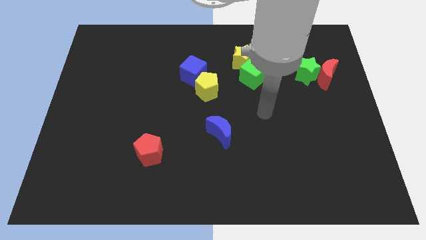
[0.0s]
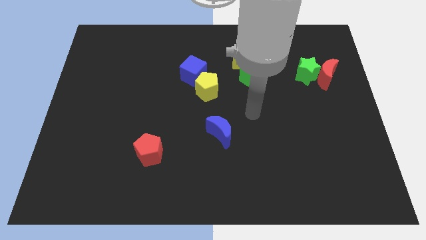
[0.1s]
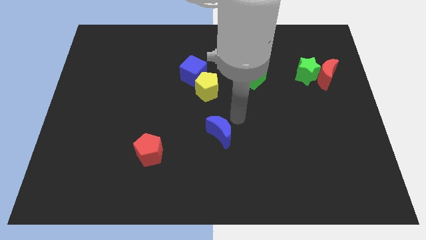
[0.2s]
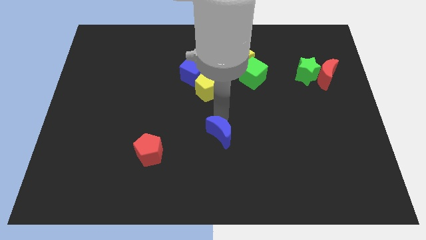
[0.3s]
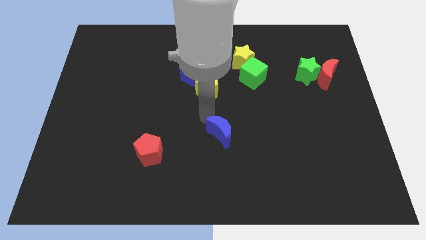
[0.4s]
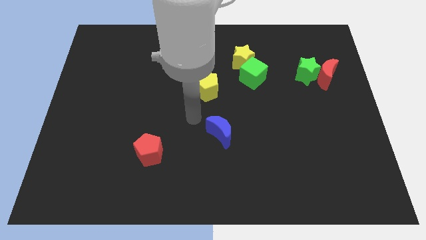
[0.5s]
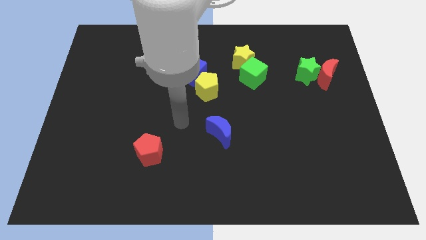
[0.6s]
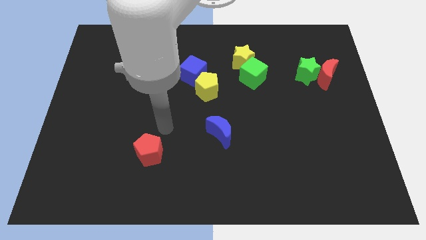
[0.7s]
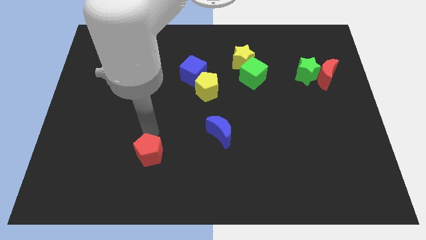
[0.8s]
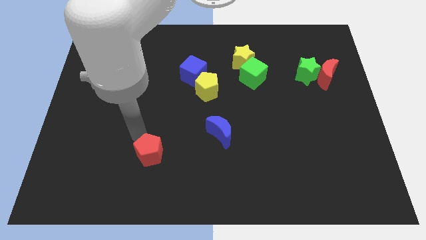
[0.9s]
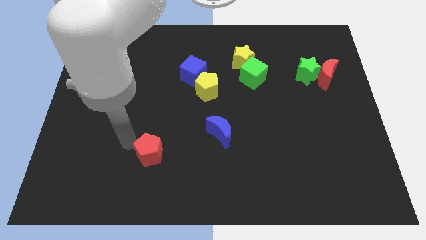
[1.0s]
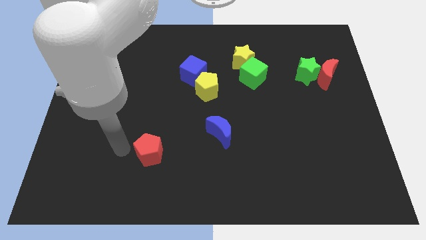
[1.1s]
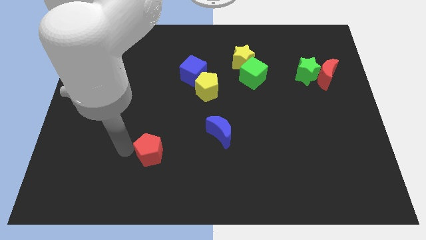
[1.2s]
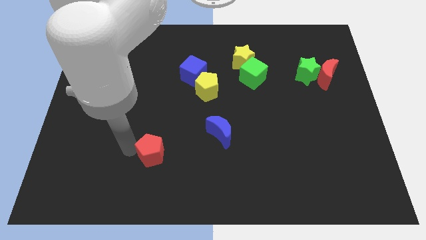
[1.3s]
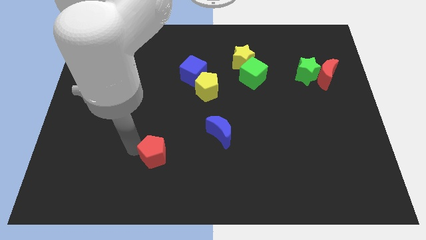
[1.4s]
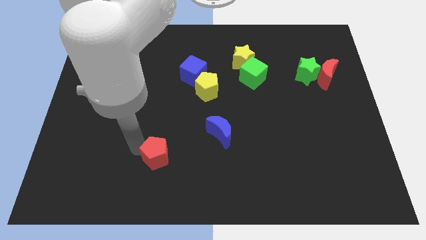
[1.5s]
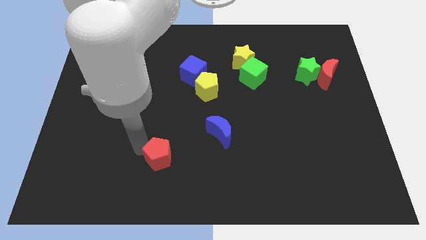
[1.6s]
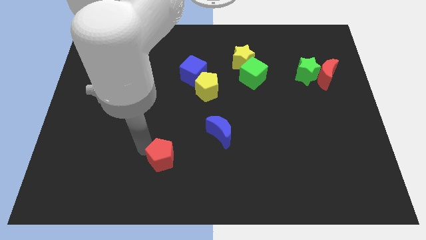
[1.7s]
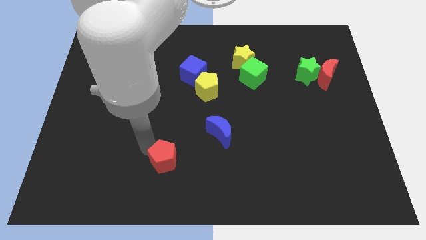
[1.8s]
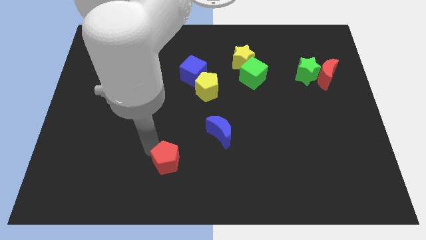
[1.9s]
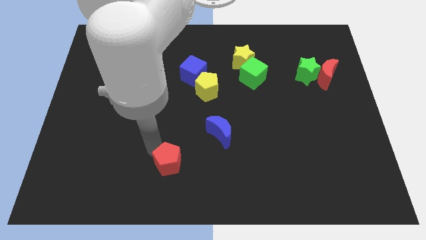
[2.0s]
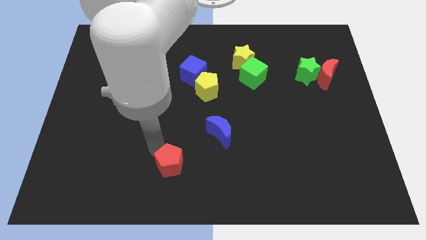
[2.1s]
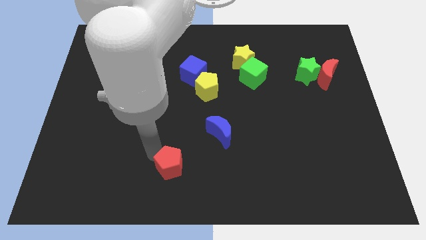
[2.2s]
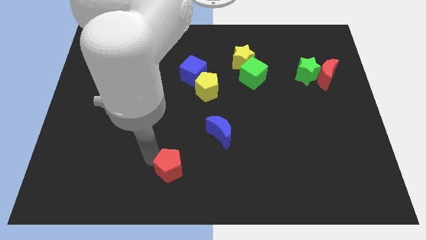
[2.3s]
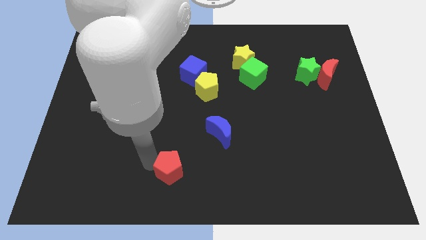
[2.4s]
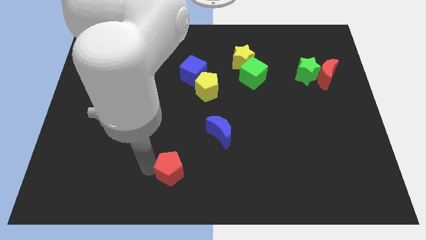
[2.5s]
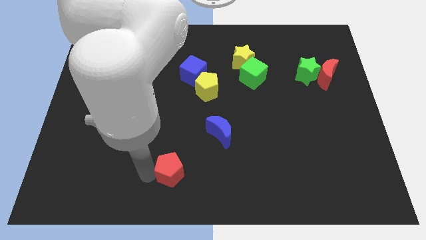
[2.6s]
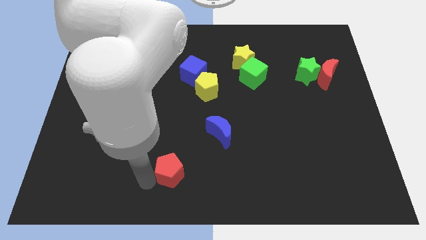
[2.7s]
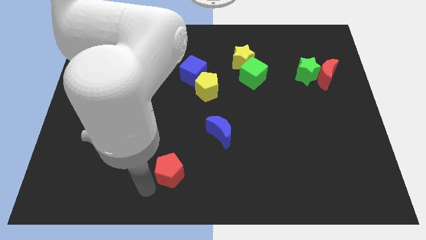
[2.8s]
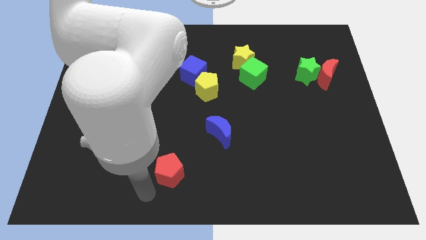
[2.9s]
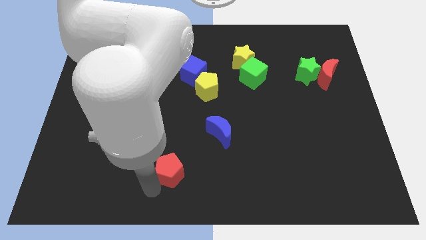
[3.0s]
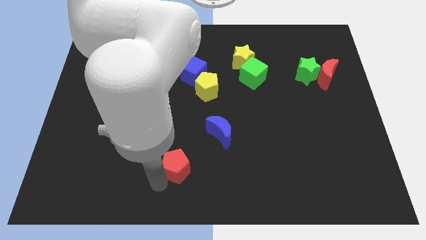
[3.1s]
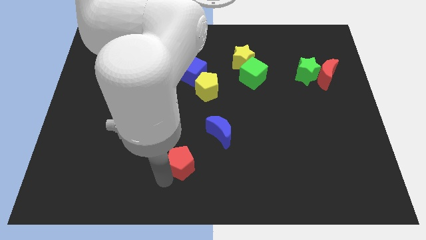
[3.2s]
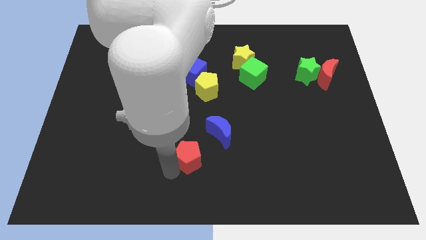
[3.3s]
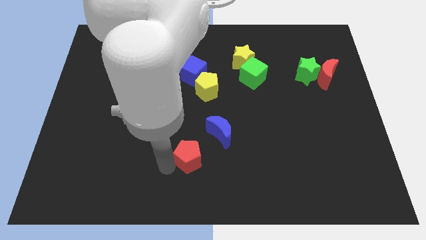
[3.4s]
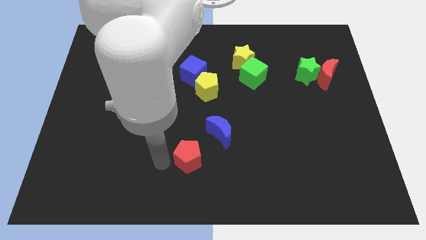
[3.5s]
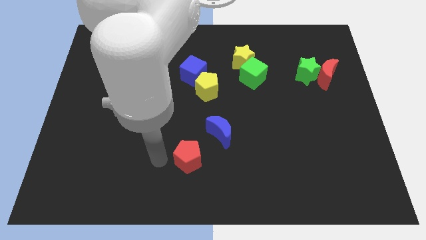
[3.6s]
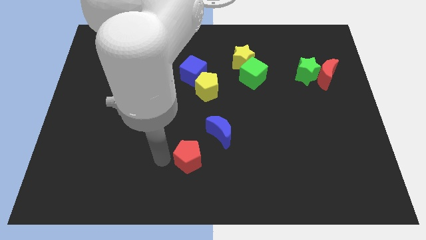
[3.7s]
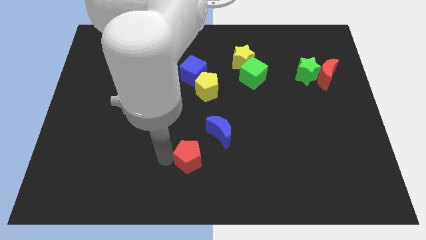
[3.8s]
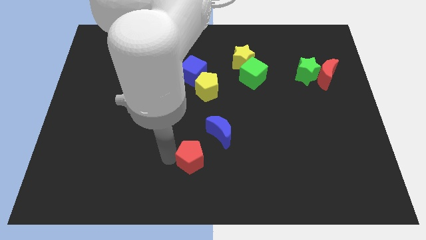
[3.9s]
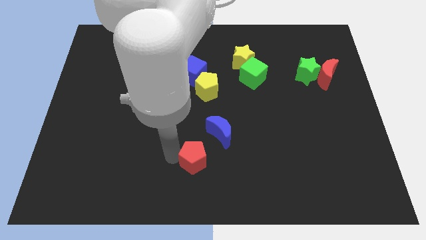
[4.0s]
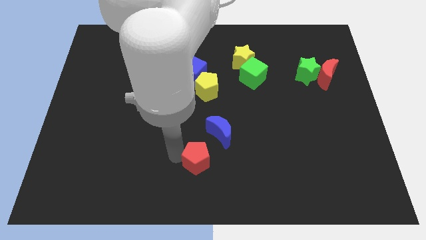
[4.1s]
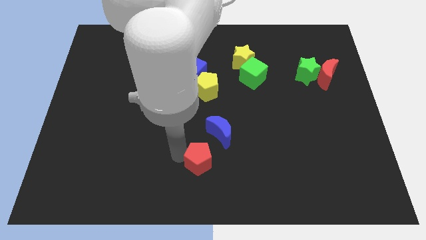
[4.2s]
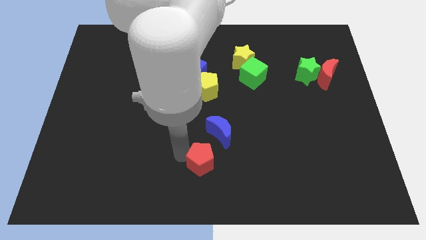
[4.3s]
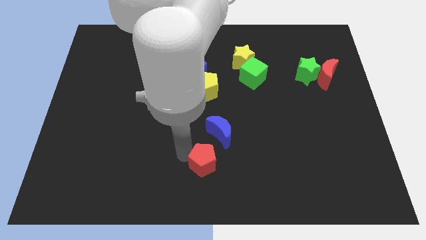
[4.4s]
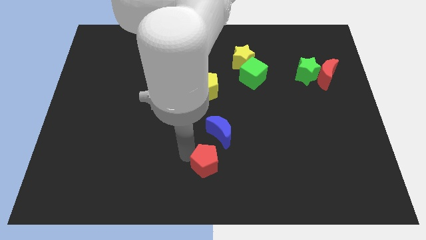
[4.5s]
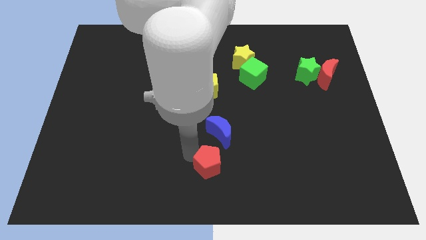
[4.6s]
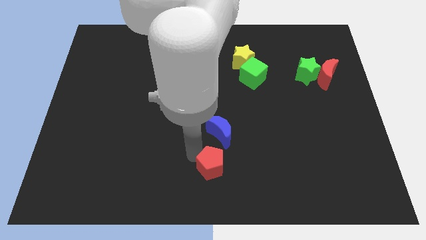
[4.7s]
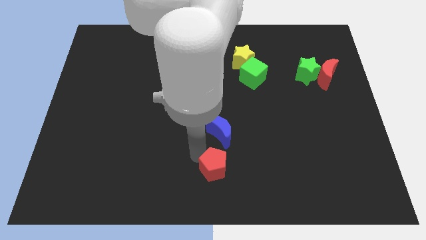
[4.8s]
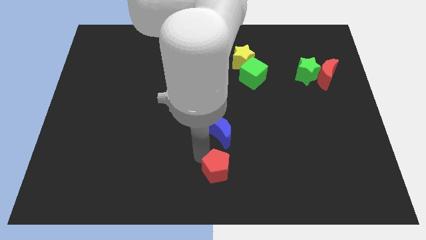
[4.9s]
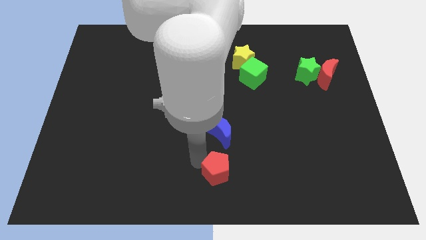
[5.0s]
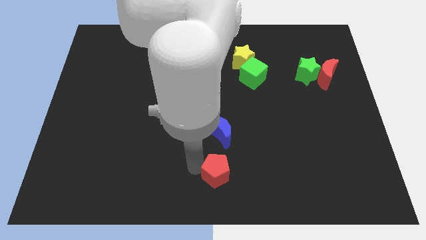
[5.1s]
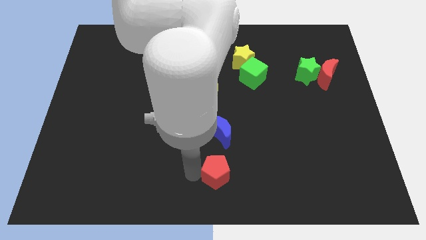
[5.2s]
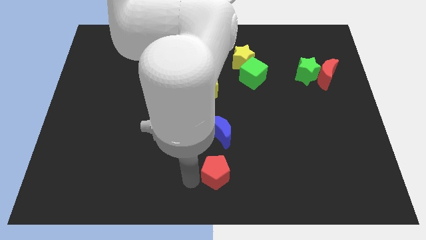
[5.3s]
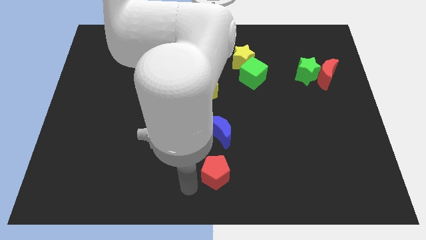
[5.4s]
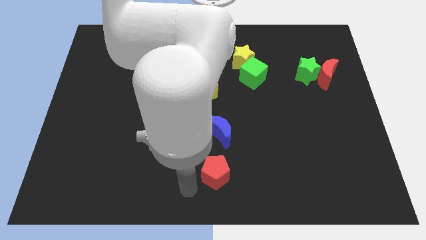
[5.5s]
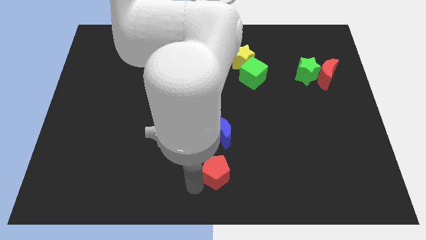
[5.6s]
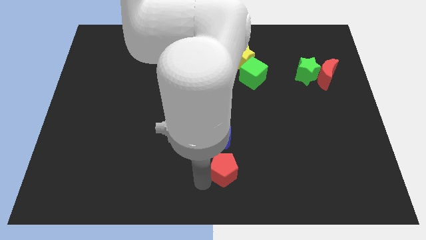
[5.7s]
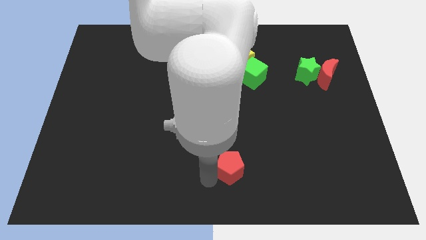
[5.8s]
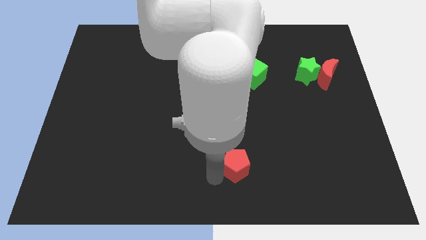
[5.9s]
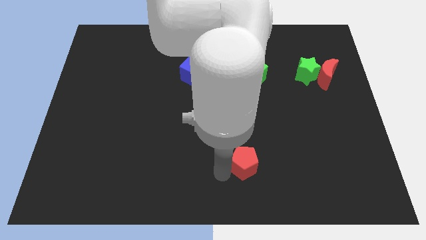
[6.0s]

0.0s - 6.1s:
push the red pentagon to the right

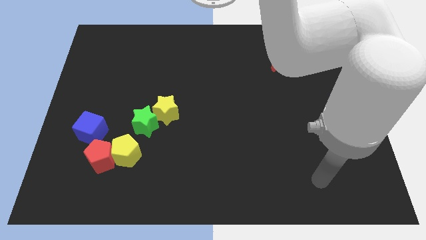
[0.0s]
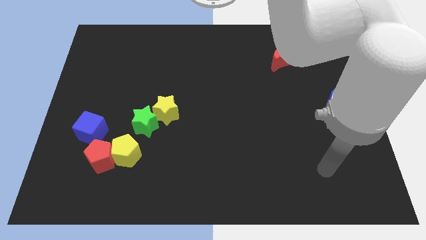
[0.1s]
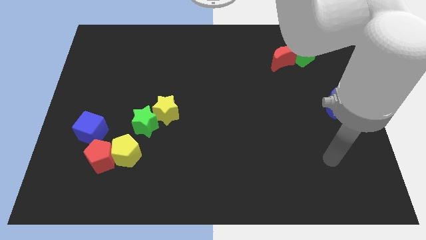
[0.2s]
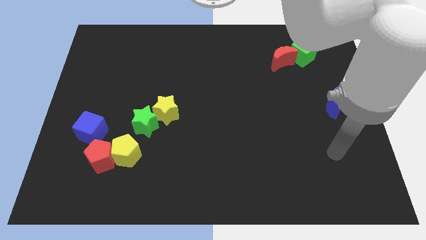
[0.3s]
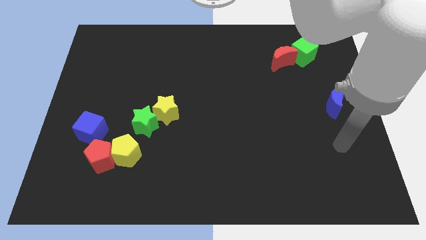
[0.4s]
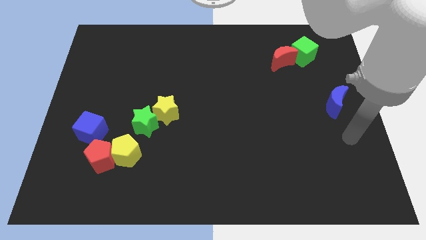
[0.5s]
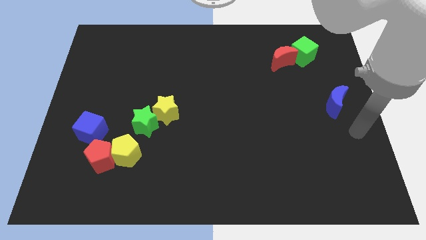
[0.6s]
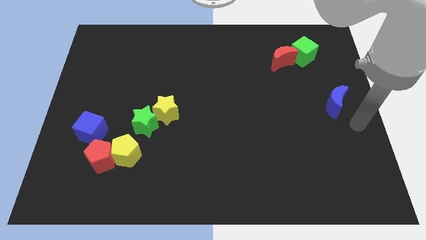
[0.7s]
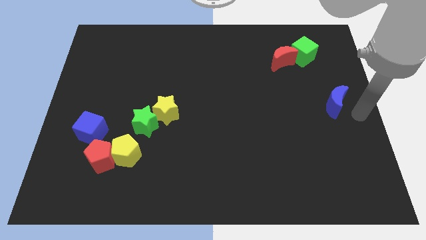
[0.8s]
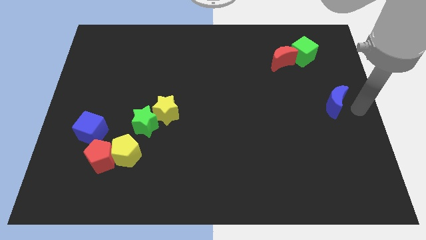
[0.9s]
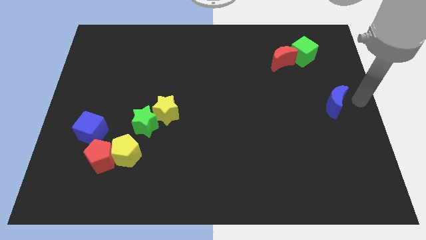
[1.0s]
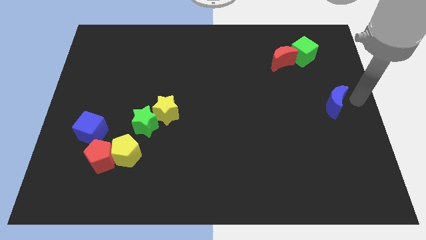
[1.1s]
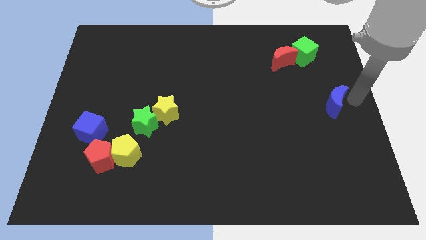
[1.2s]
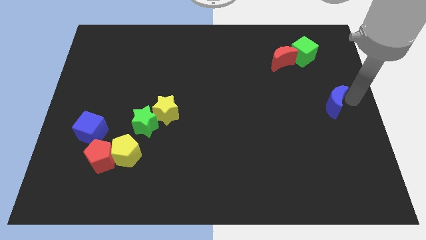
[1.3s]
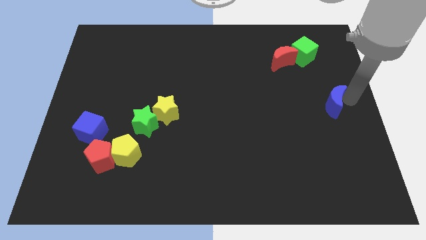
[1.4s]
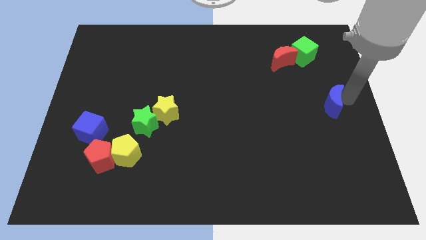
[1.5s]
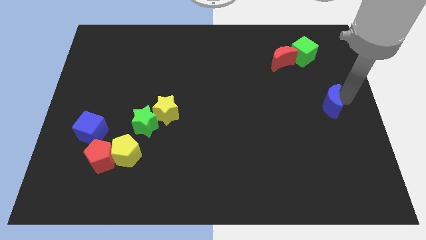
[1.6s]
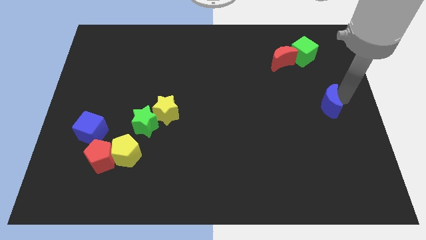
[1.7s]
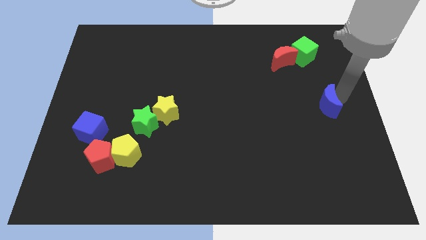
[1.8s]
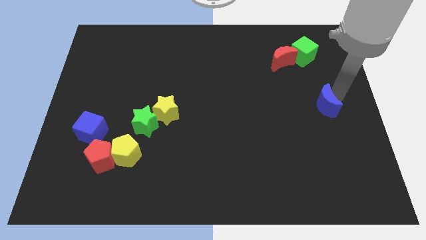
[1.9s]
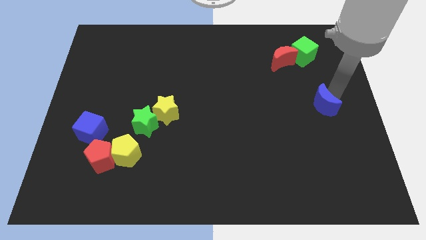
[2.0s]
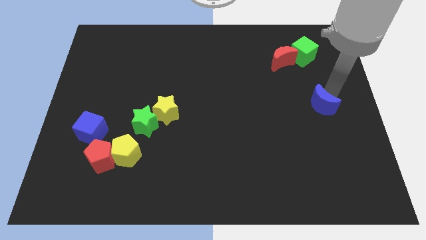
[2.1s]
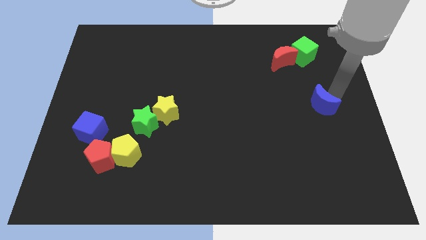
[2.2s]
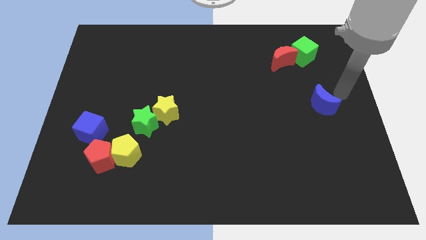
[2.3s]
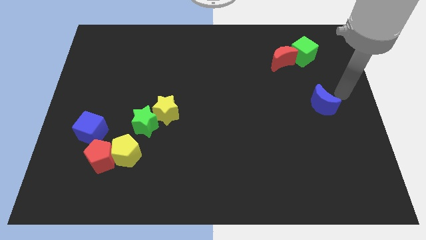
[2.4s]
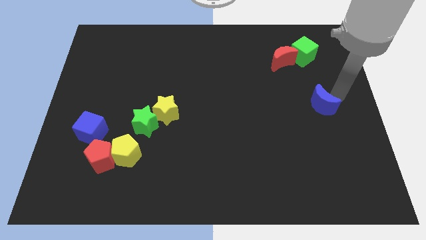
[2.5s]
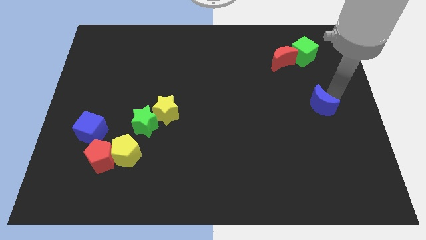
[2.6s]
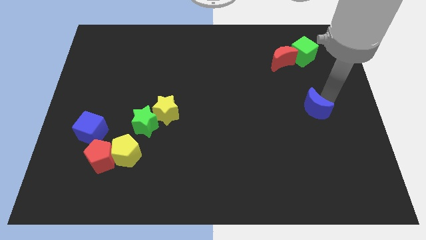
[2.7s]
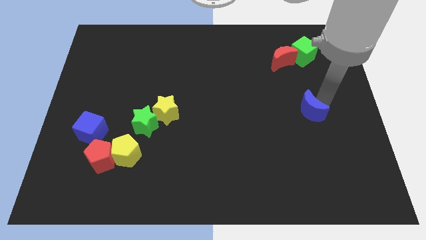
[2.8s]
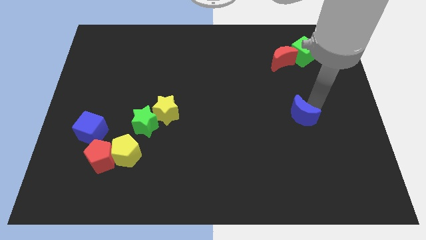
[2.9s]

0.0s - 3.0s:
push the blue moon downwards and left a little
